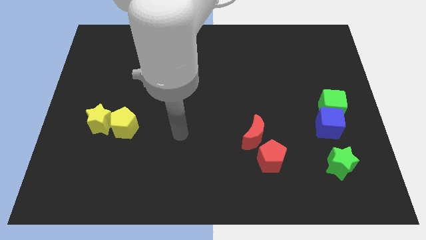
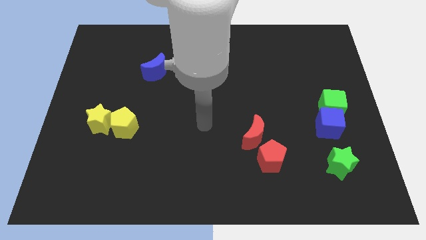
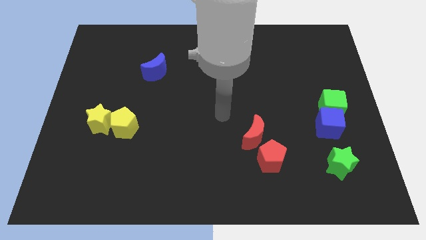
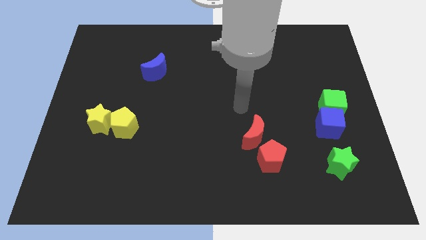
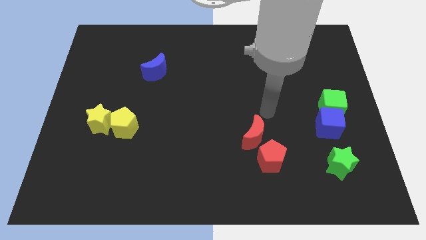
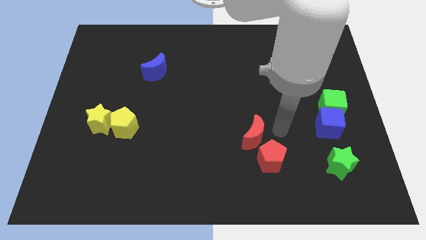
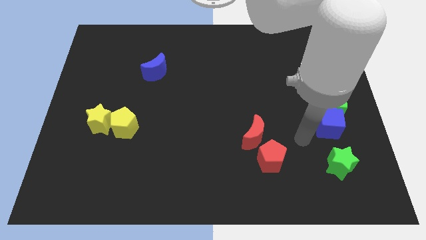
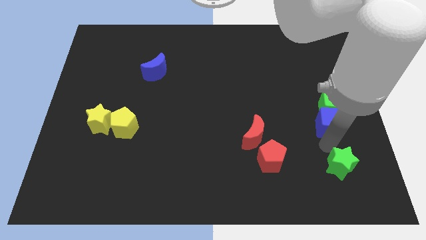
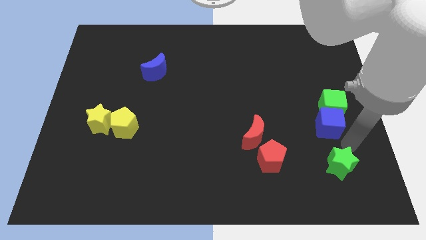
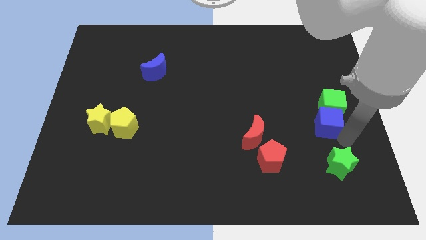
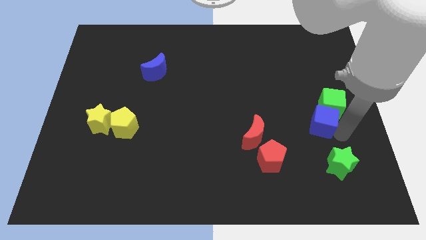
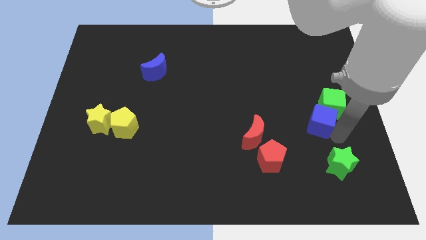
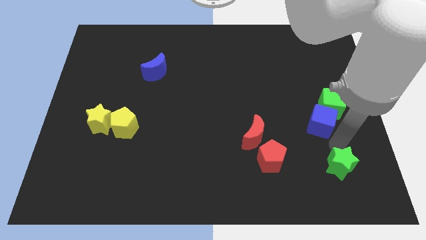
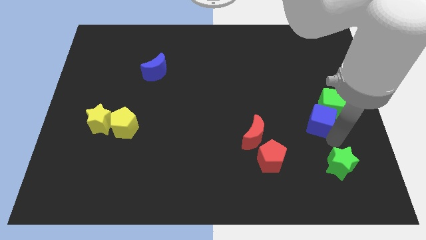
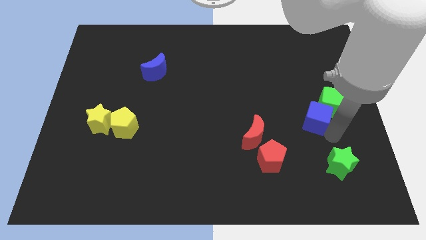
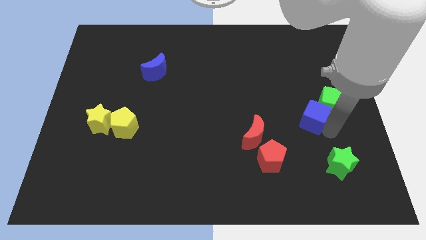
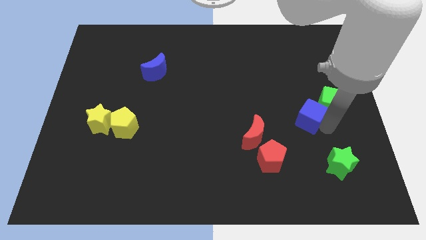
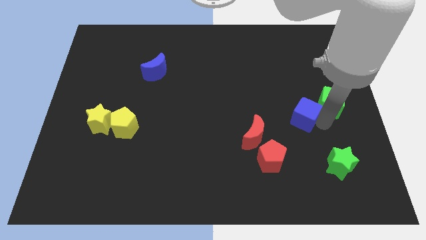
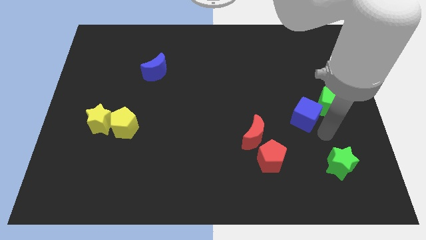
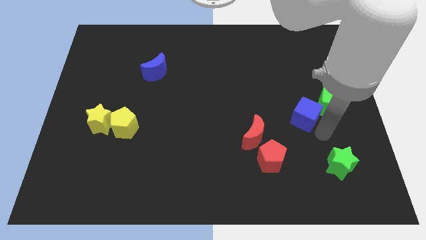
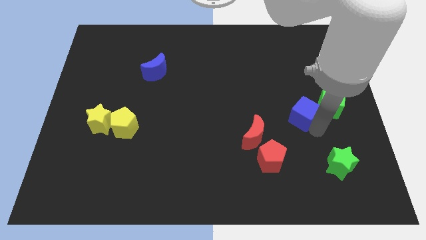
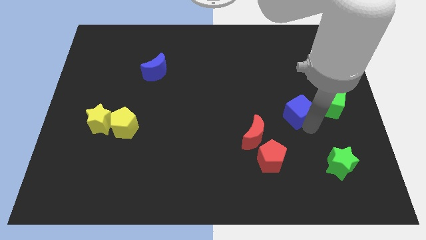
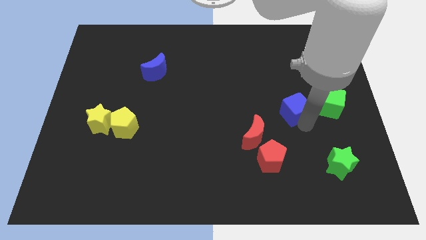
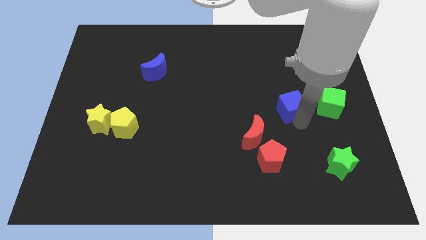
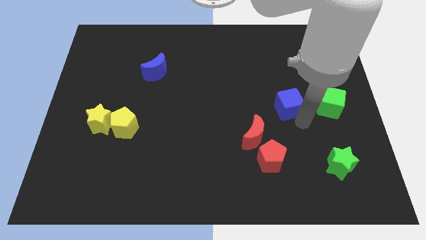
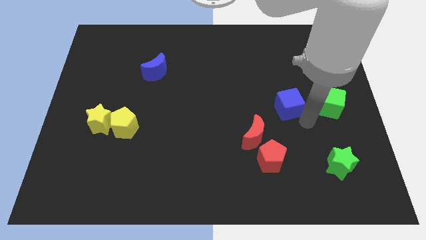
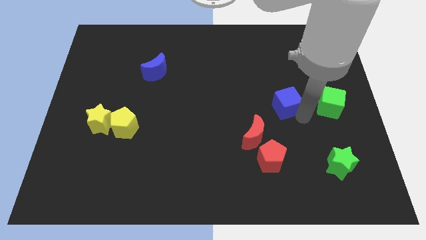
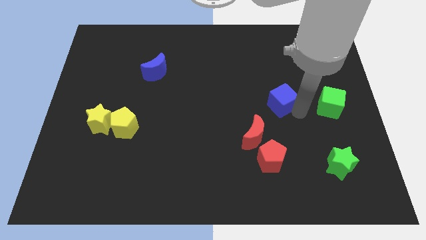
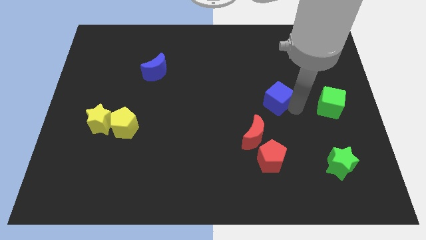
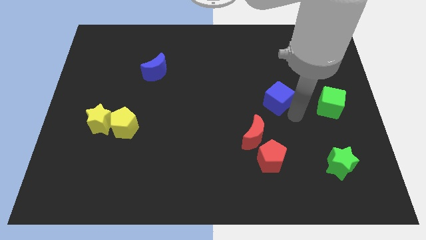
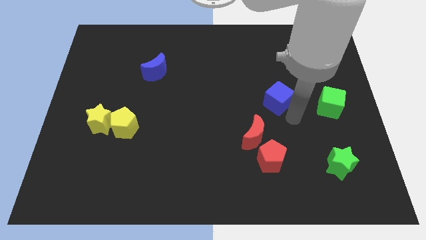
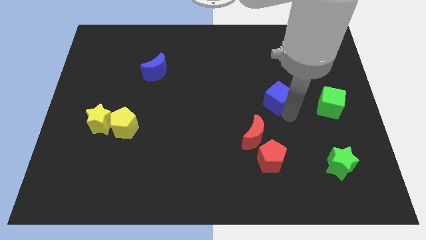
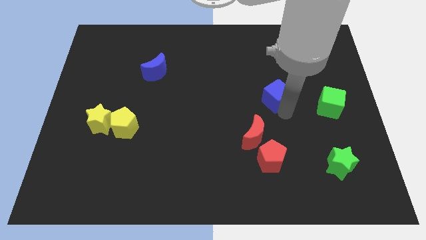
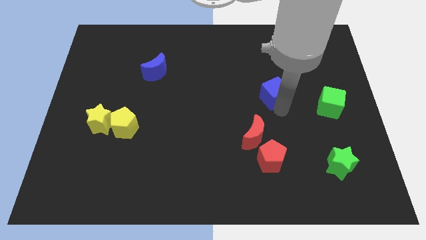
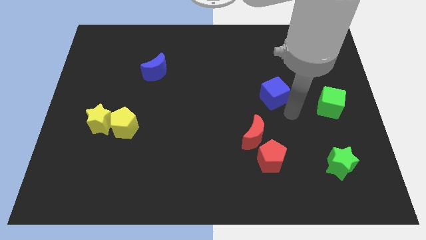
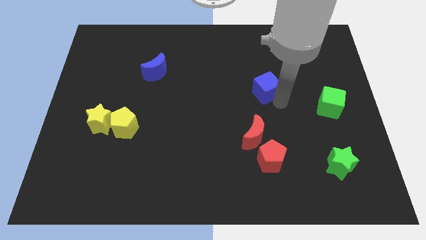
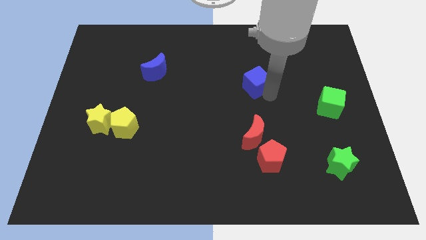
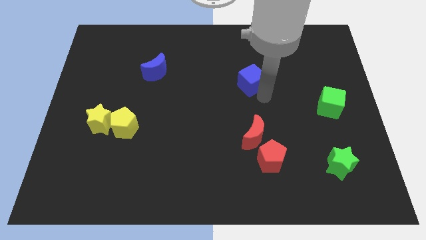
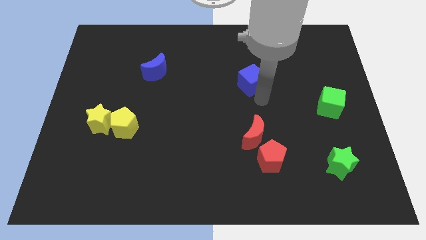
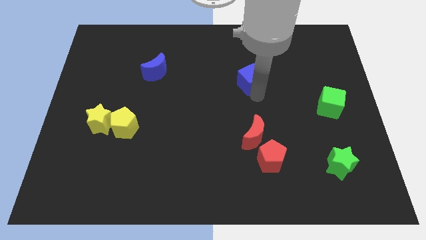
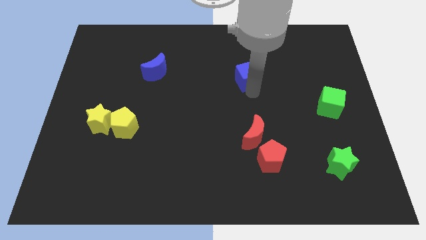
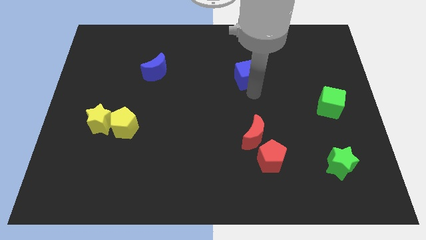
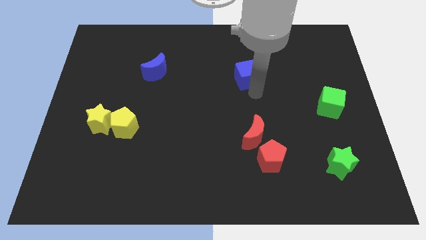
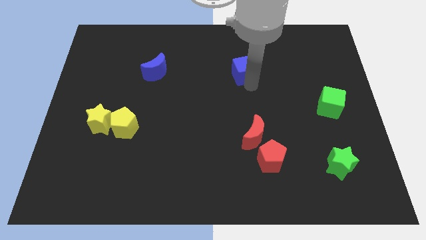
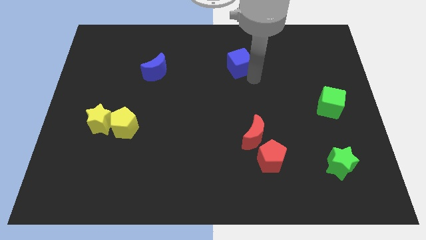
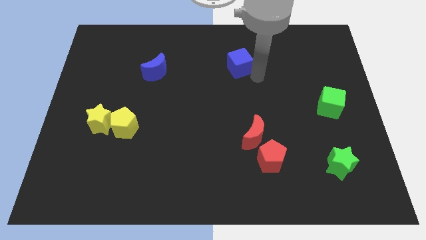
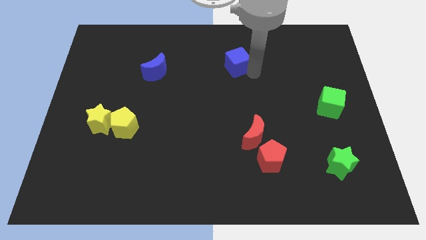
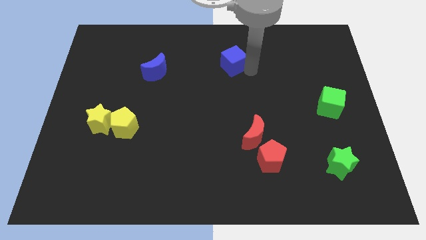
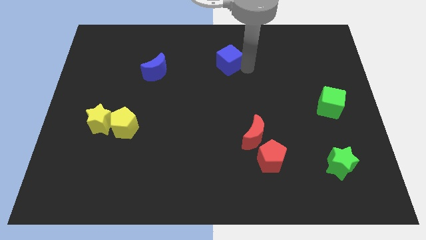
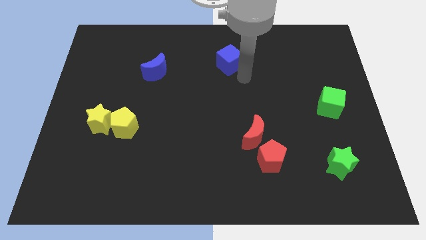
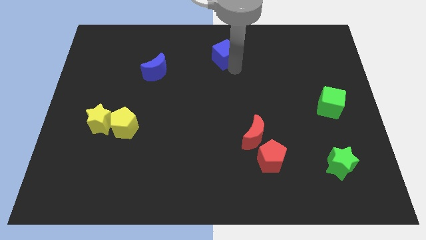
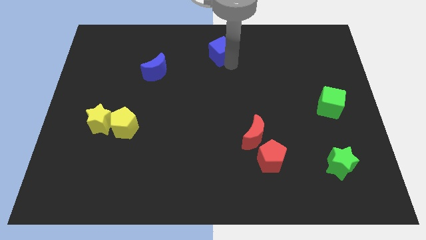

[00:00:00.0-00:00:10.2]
slide the blue cube to the top

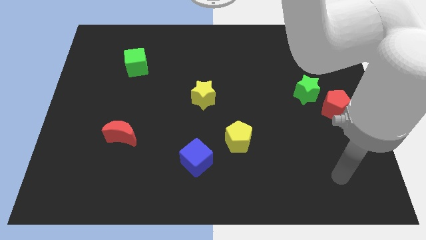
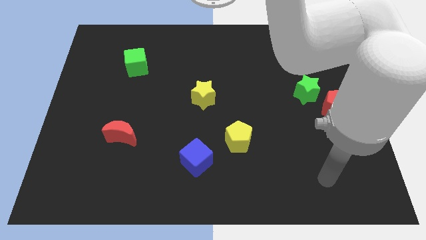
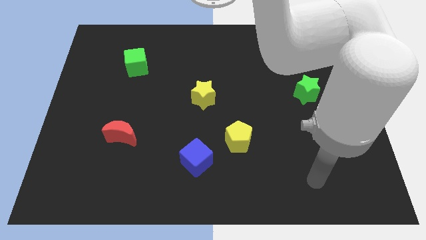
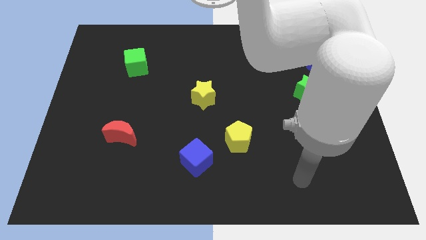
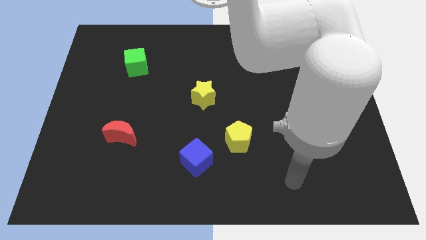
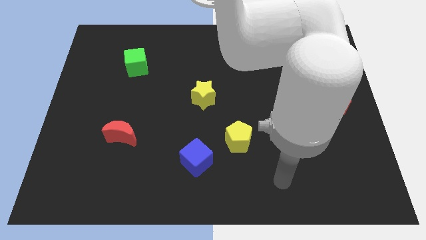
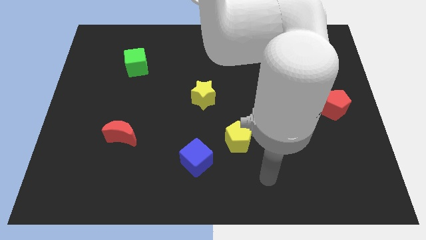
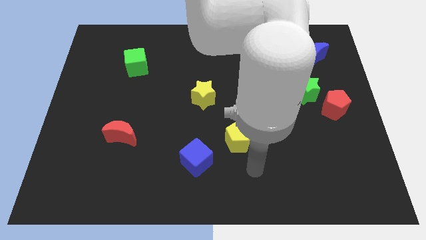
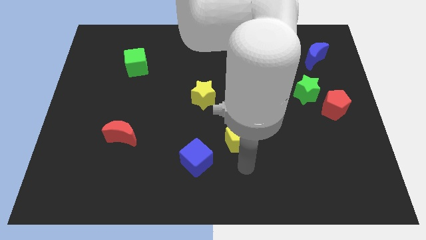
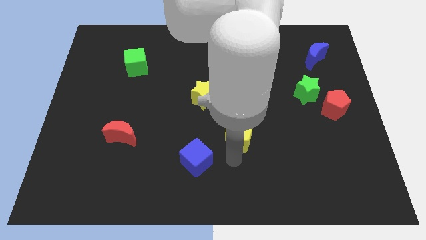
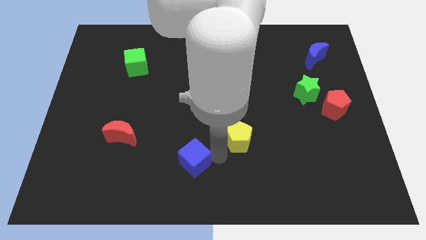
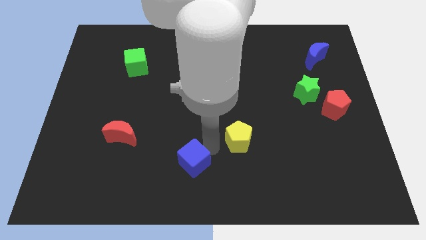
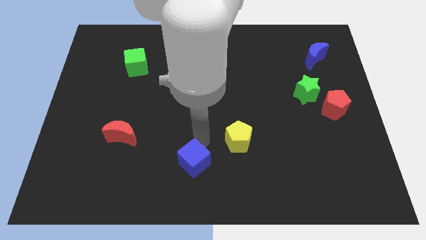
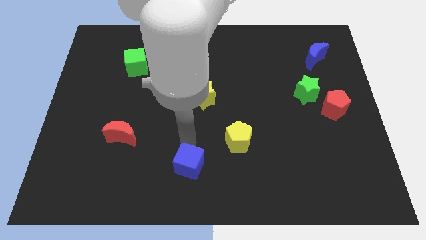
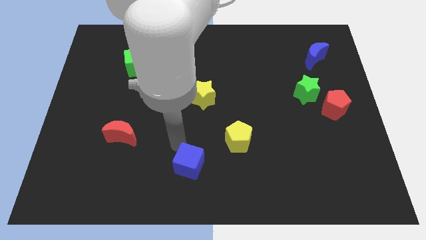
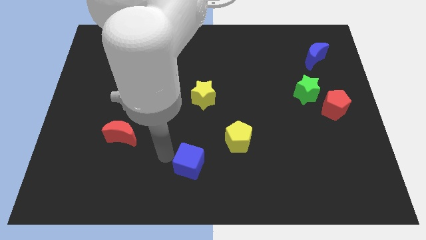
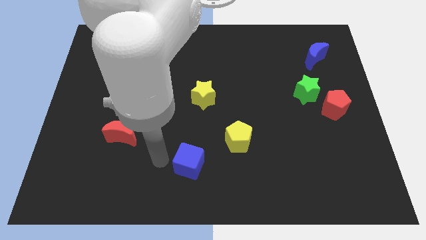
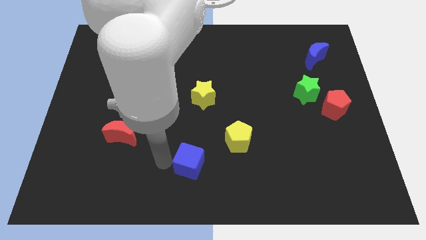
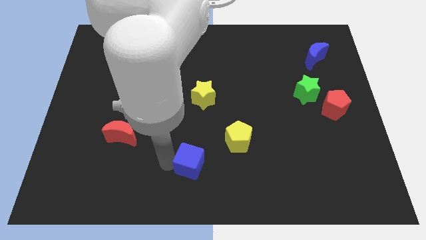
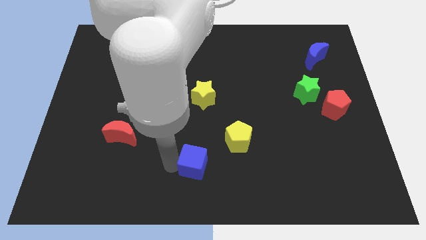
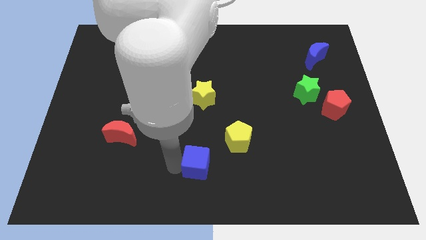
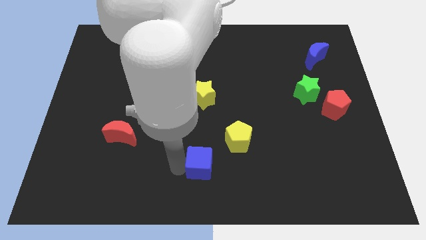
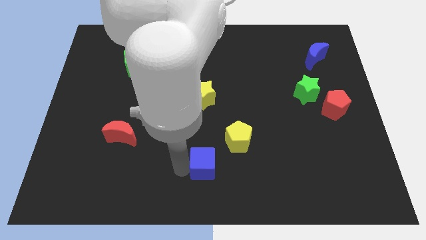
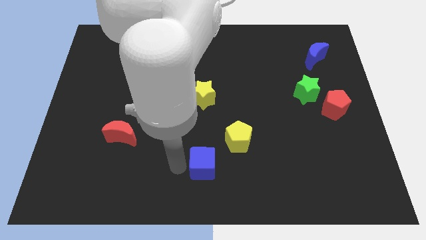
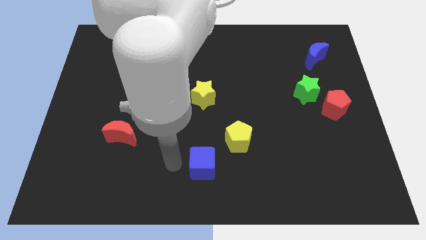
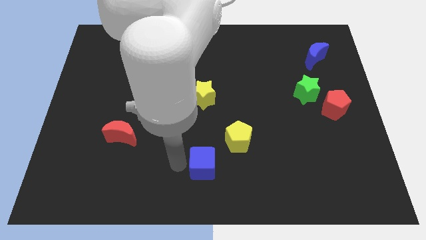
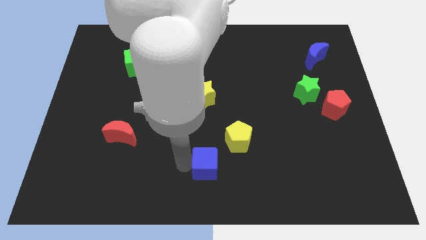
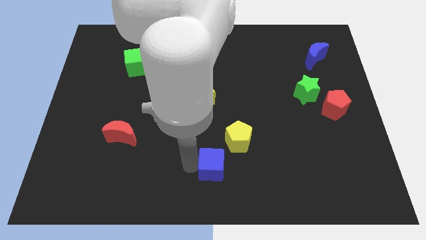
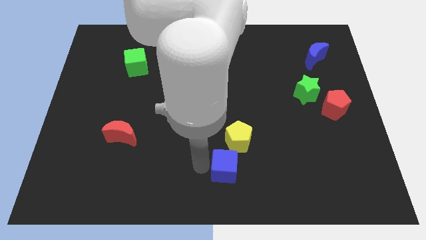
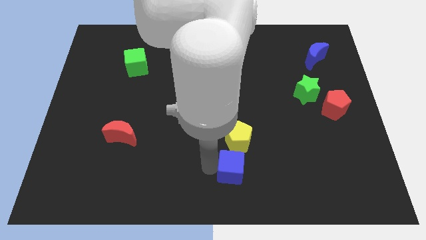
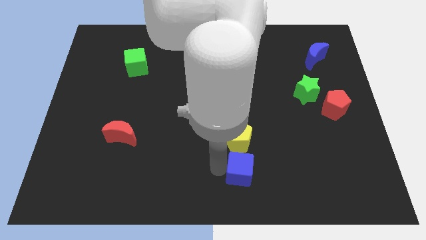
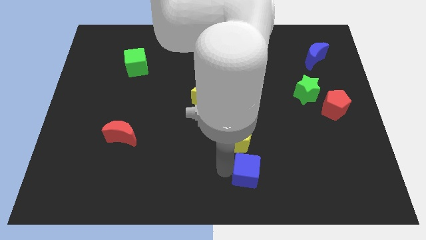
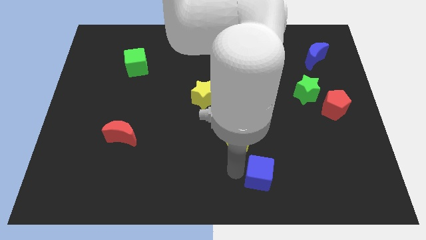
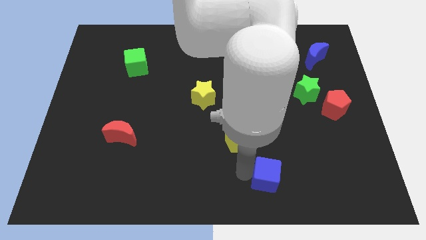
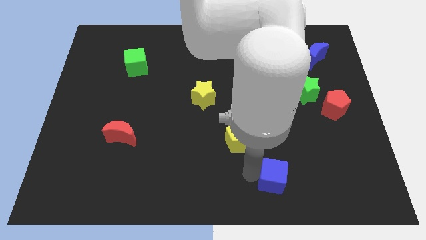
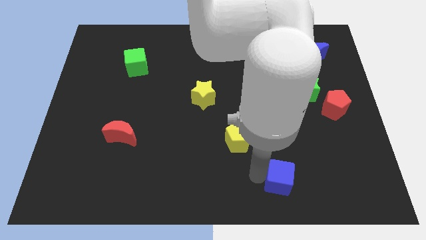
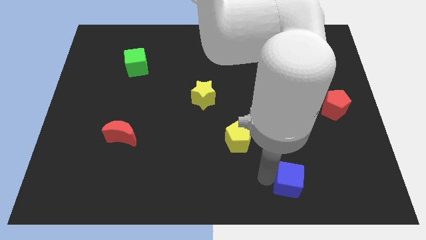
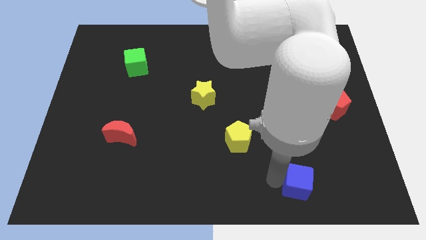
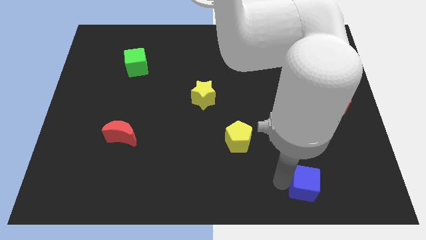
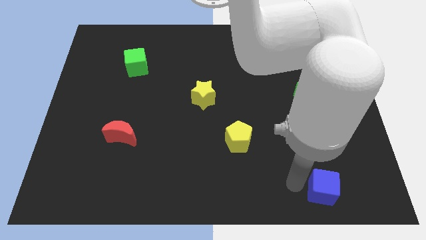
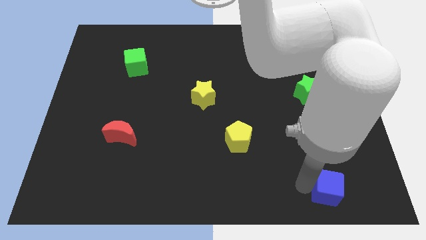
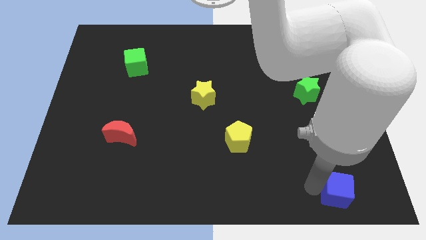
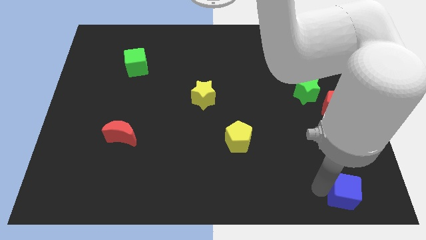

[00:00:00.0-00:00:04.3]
put the blue cube to the bottom right of the board
